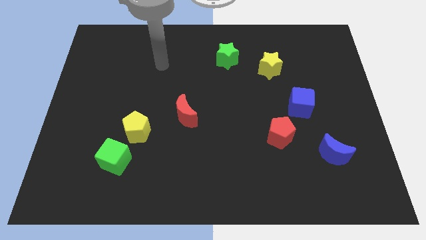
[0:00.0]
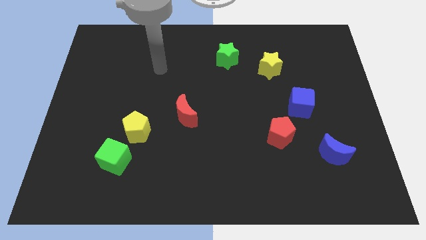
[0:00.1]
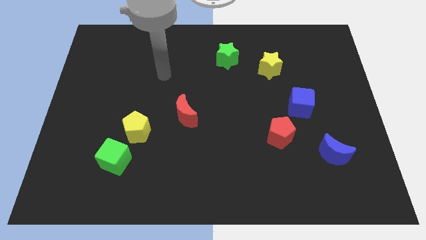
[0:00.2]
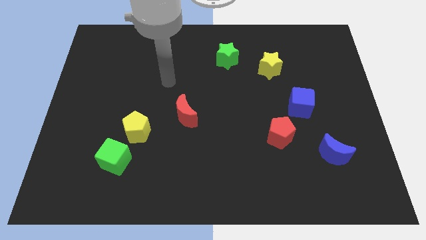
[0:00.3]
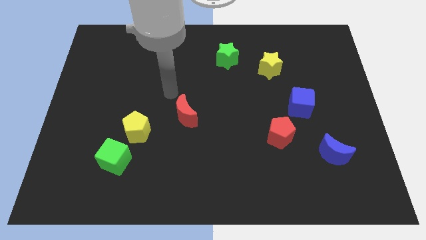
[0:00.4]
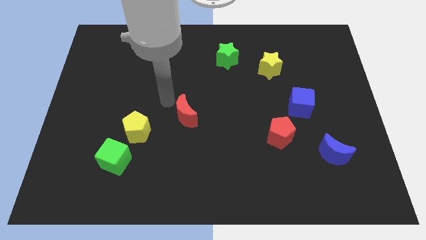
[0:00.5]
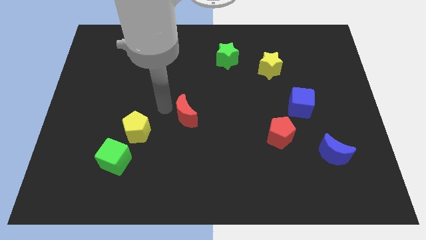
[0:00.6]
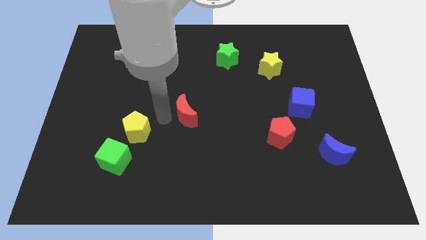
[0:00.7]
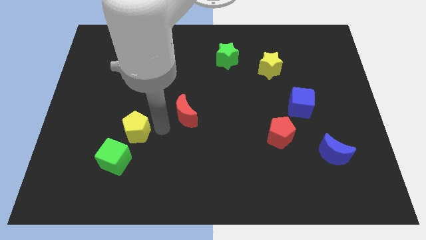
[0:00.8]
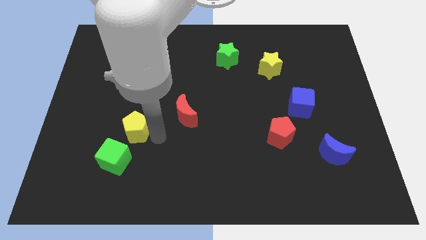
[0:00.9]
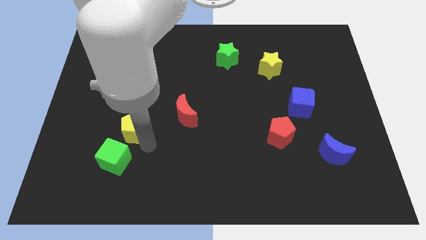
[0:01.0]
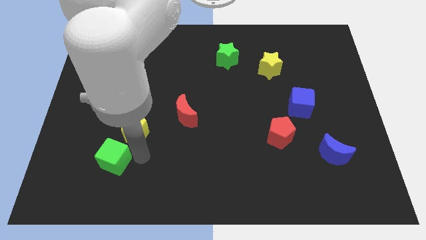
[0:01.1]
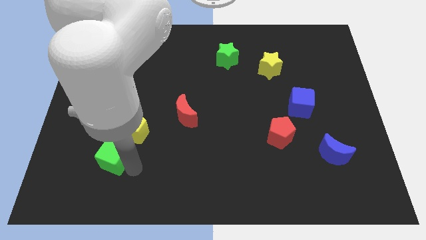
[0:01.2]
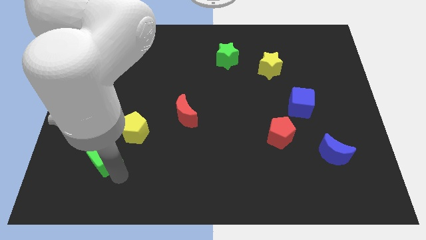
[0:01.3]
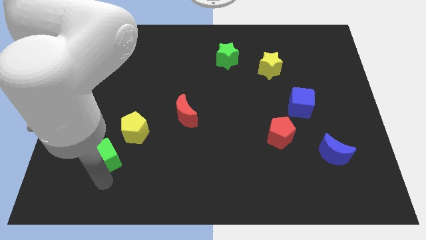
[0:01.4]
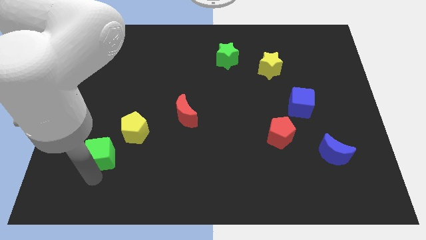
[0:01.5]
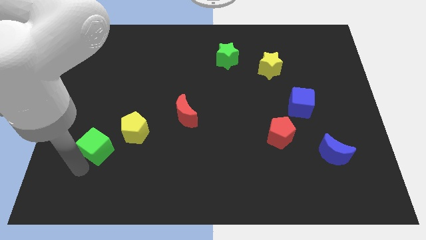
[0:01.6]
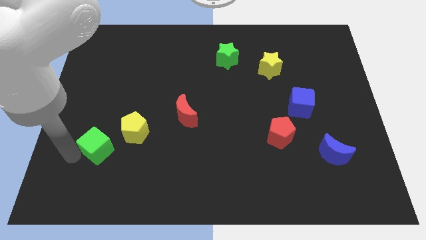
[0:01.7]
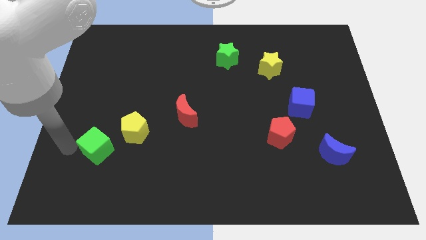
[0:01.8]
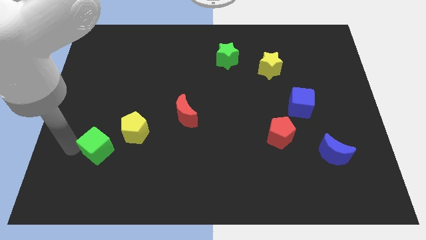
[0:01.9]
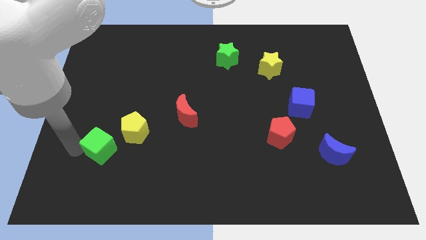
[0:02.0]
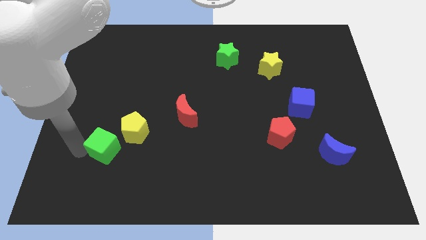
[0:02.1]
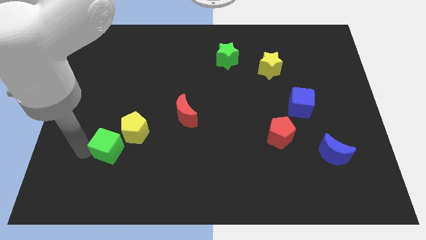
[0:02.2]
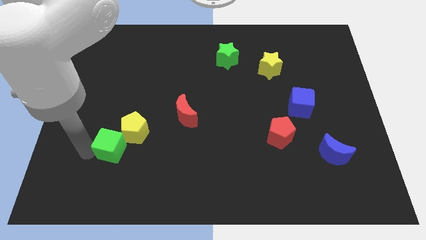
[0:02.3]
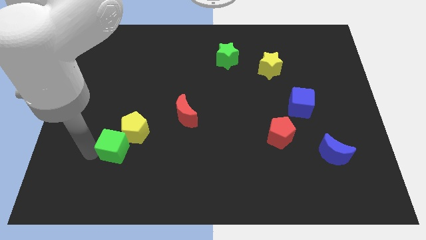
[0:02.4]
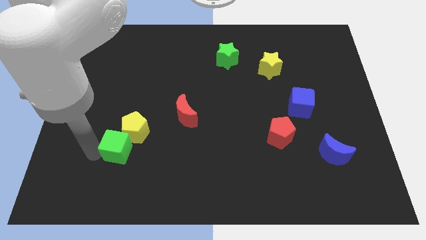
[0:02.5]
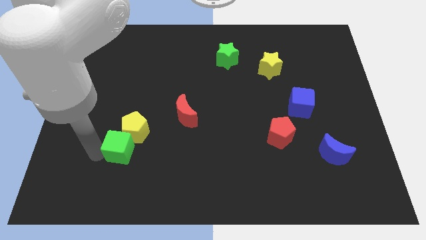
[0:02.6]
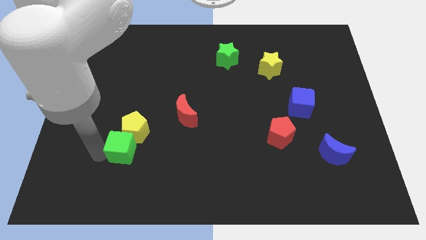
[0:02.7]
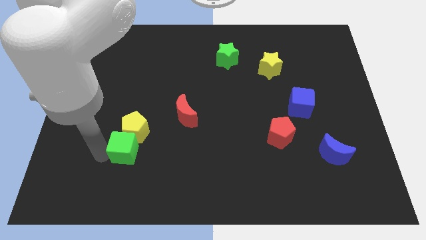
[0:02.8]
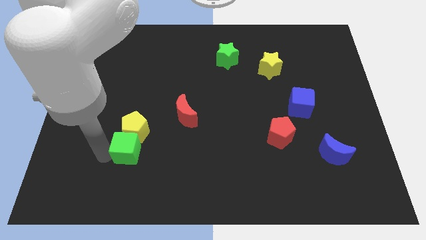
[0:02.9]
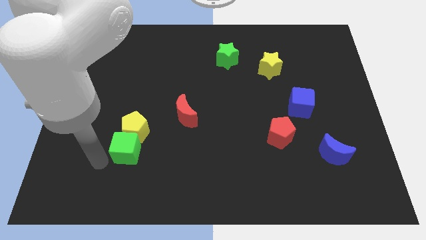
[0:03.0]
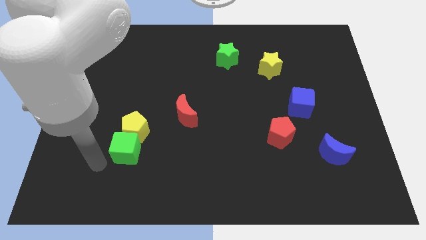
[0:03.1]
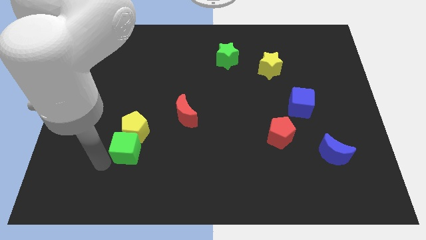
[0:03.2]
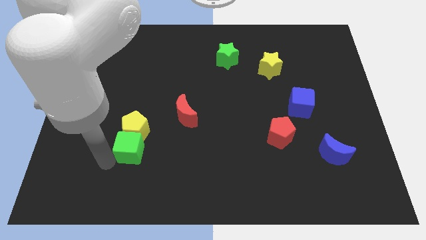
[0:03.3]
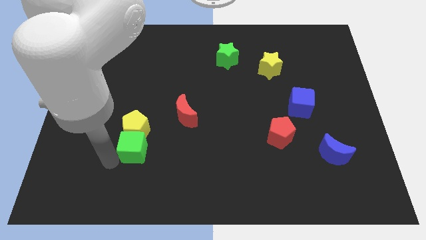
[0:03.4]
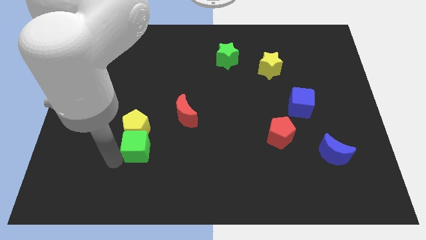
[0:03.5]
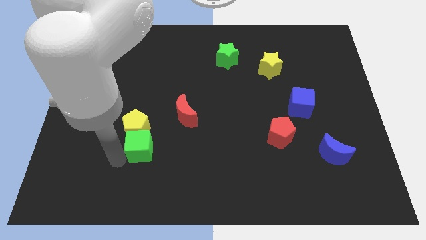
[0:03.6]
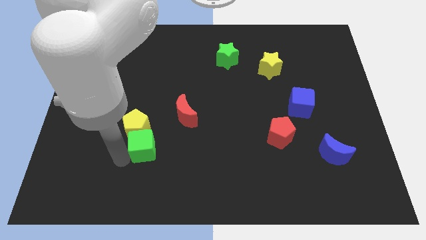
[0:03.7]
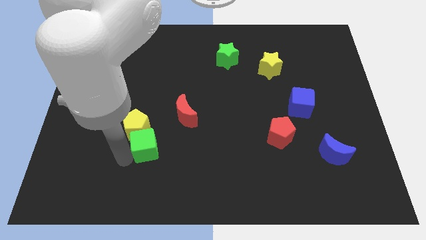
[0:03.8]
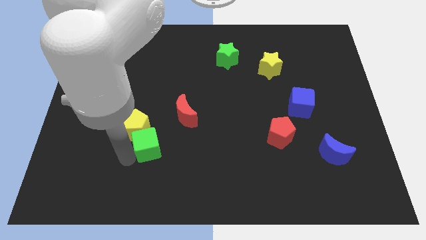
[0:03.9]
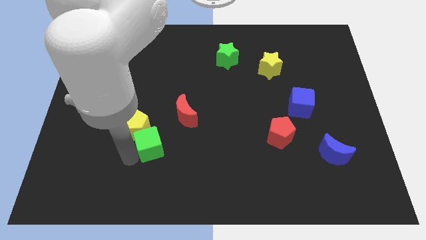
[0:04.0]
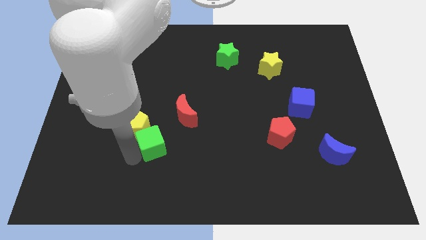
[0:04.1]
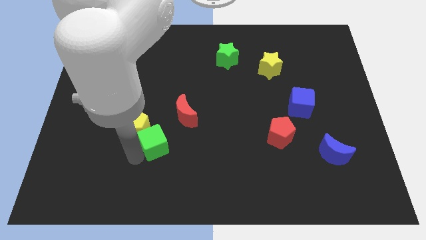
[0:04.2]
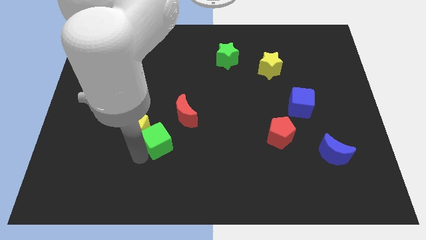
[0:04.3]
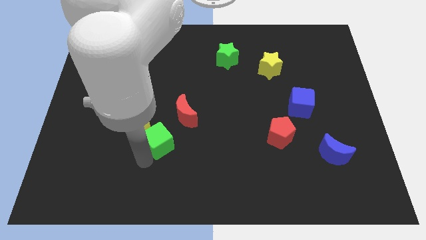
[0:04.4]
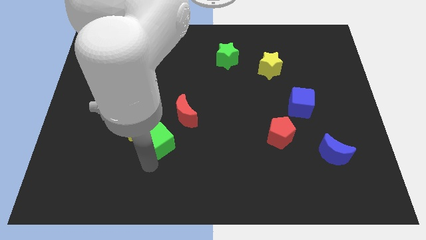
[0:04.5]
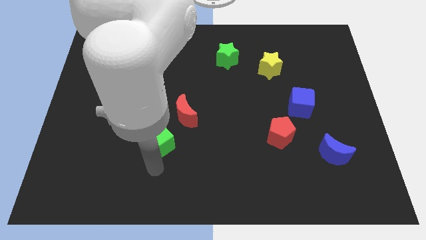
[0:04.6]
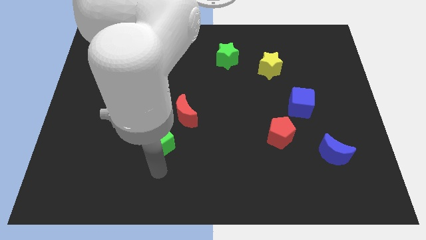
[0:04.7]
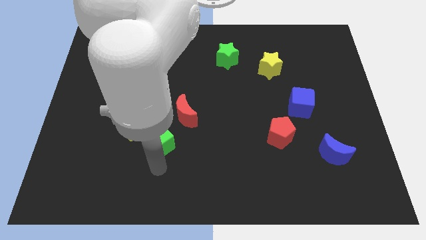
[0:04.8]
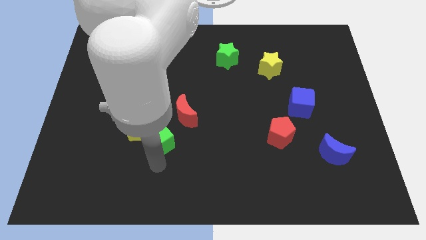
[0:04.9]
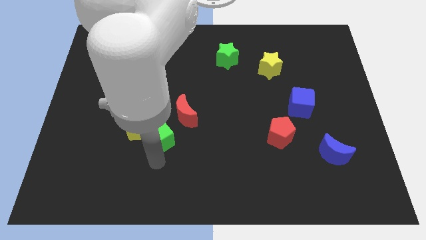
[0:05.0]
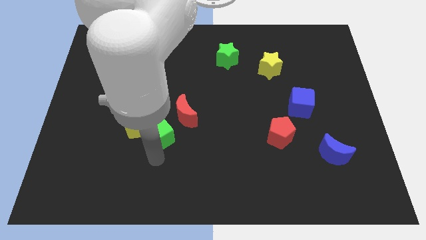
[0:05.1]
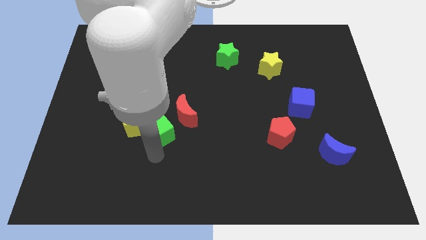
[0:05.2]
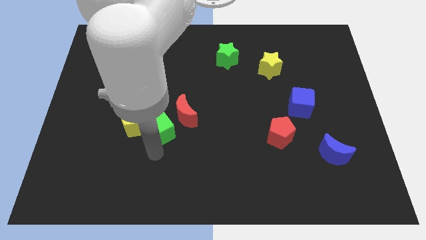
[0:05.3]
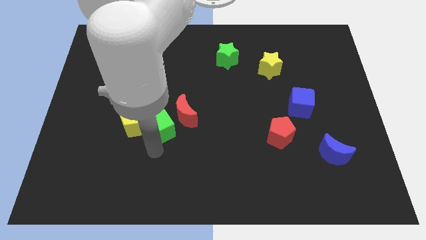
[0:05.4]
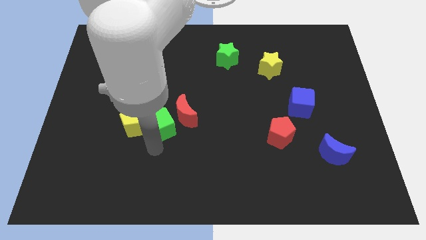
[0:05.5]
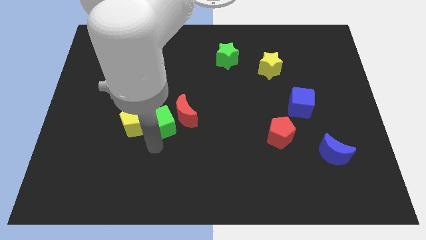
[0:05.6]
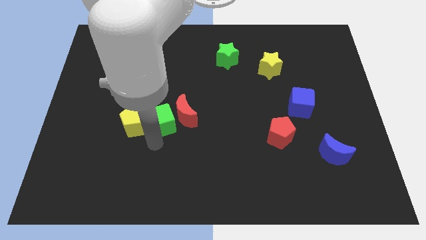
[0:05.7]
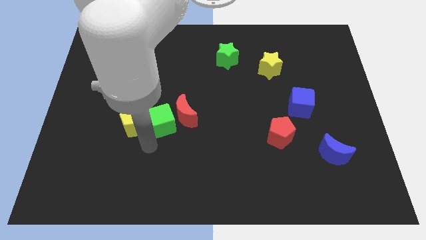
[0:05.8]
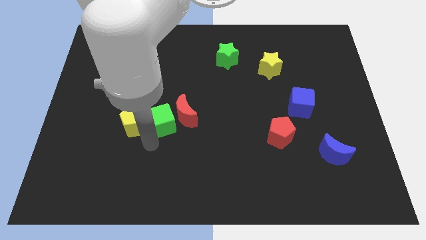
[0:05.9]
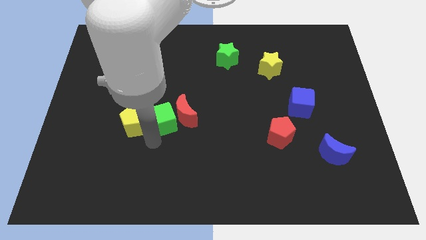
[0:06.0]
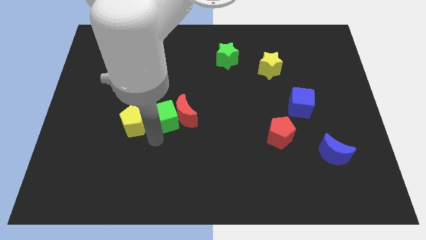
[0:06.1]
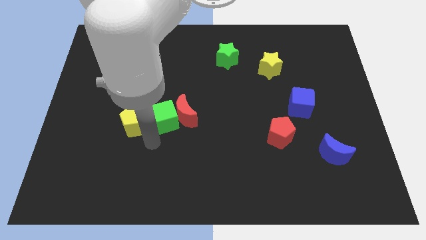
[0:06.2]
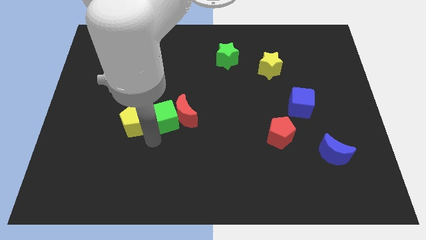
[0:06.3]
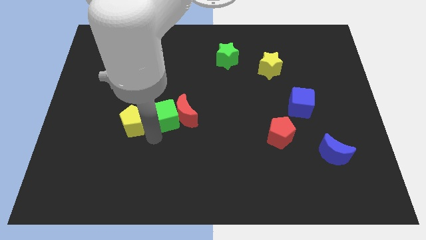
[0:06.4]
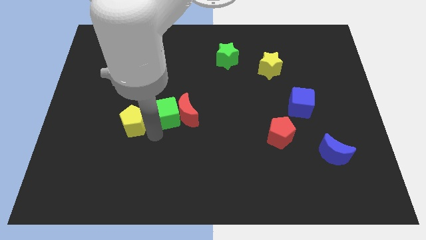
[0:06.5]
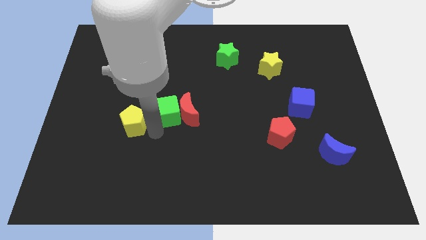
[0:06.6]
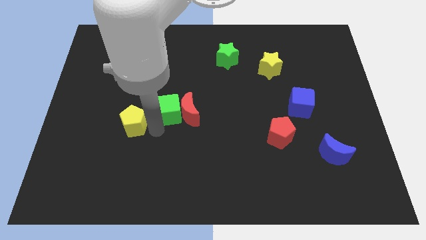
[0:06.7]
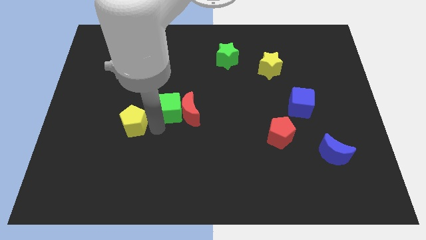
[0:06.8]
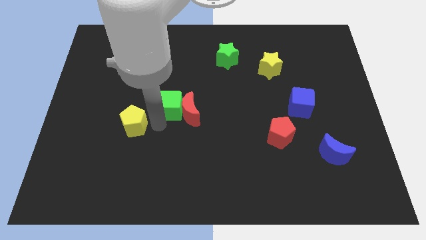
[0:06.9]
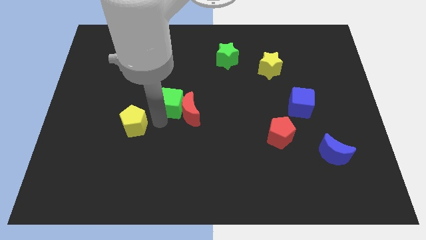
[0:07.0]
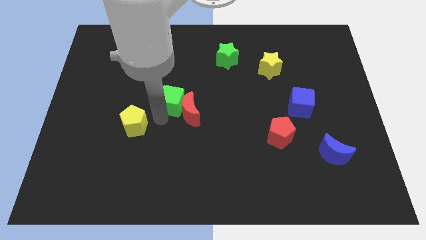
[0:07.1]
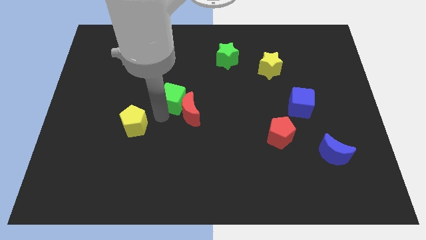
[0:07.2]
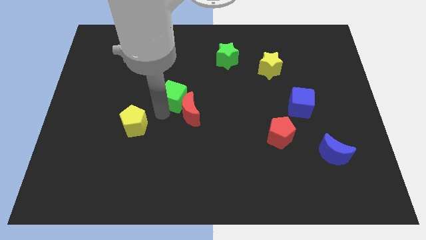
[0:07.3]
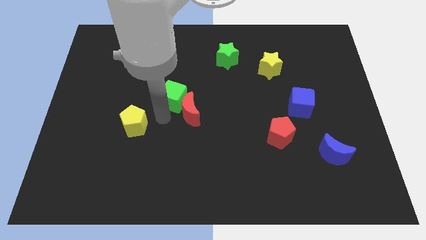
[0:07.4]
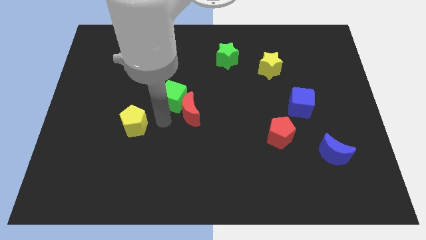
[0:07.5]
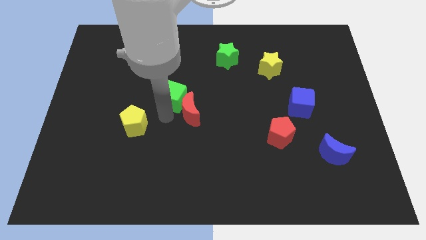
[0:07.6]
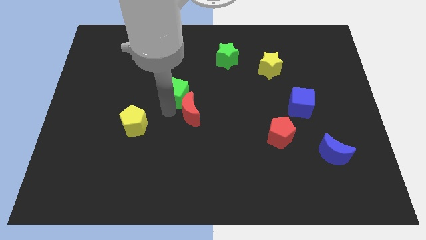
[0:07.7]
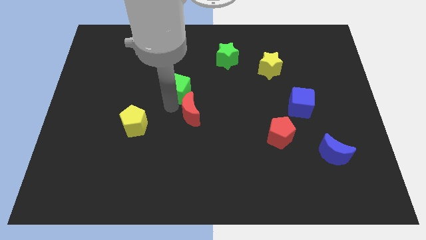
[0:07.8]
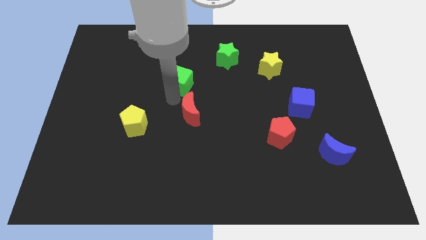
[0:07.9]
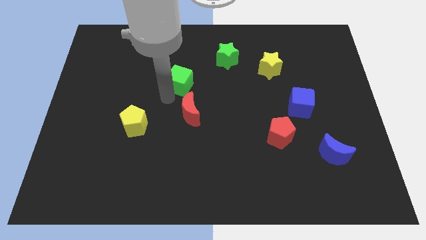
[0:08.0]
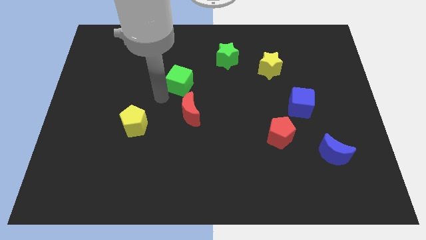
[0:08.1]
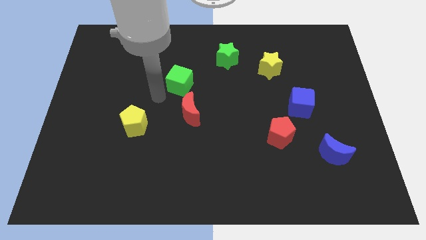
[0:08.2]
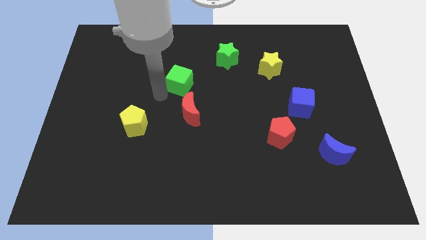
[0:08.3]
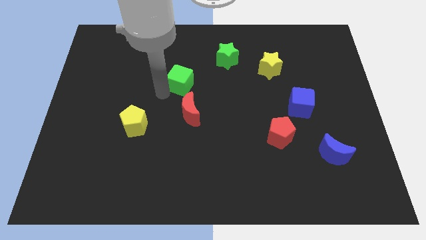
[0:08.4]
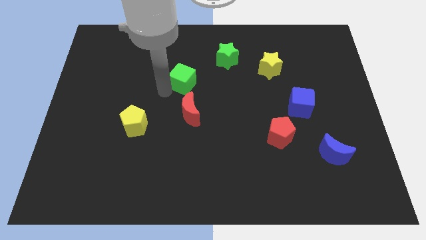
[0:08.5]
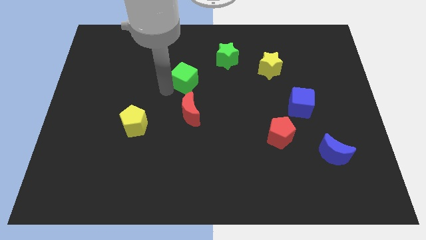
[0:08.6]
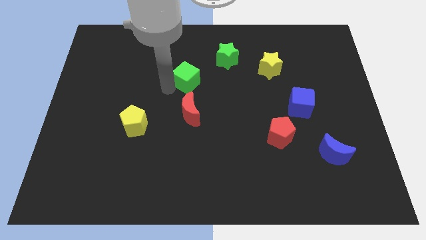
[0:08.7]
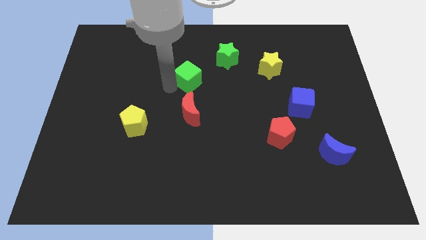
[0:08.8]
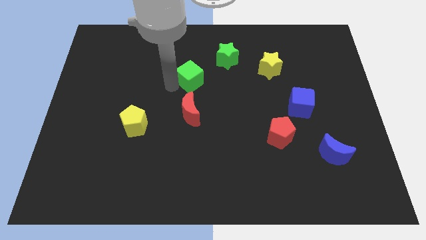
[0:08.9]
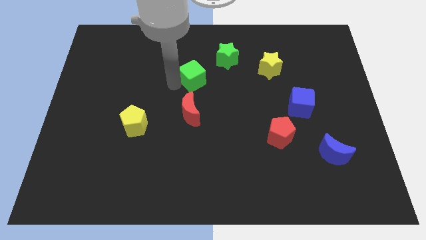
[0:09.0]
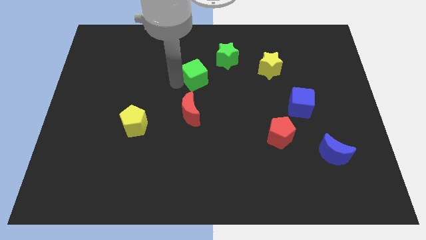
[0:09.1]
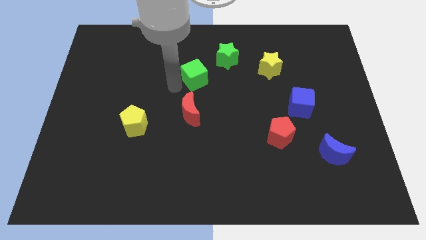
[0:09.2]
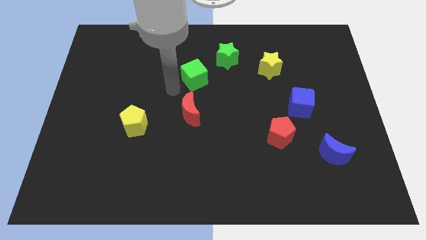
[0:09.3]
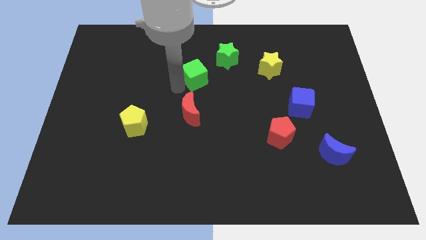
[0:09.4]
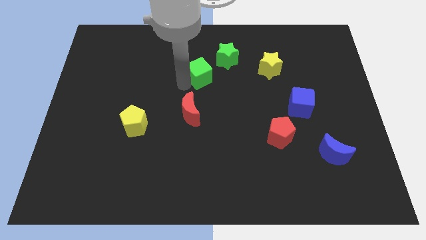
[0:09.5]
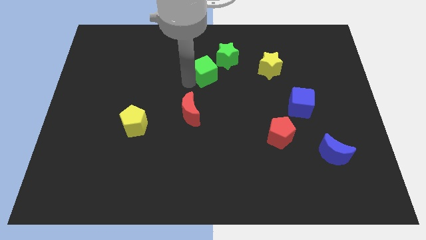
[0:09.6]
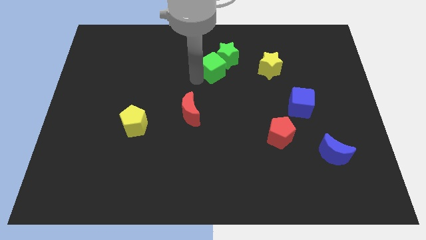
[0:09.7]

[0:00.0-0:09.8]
slide the green cube towards the green star
